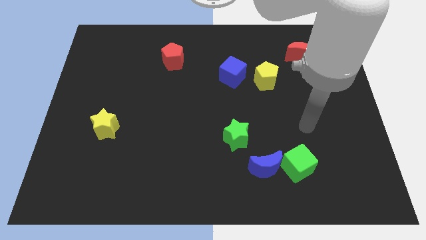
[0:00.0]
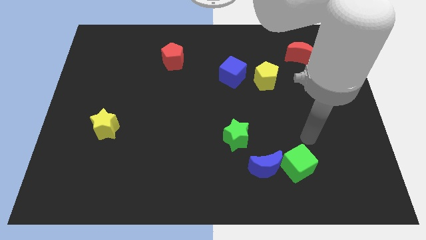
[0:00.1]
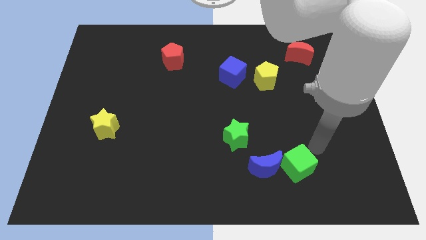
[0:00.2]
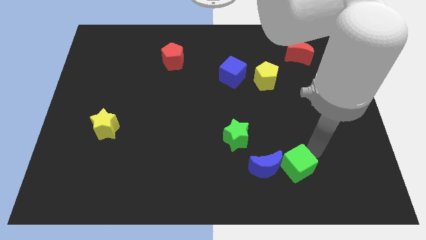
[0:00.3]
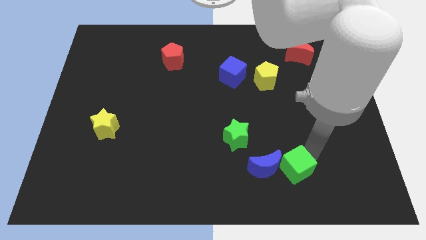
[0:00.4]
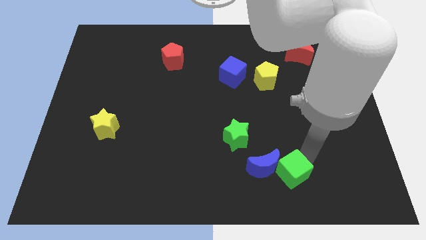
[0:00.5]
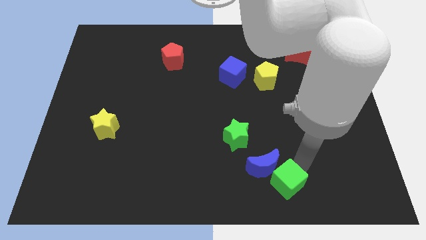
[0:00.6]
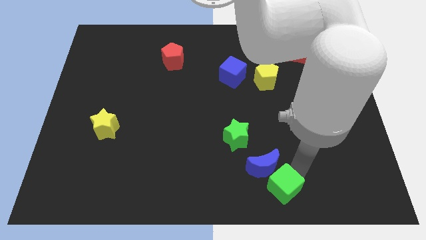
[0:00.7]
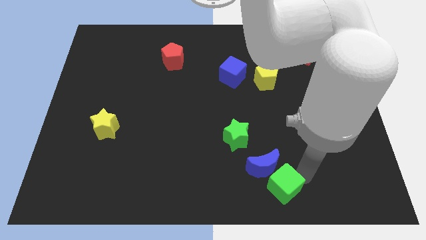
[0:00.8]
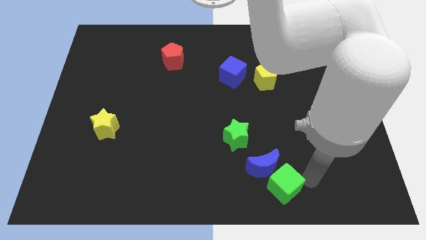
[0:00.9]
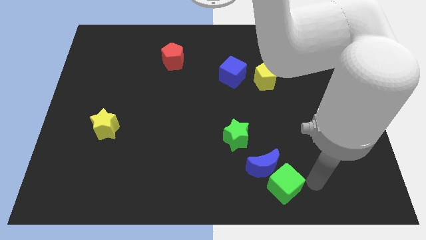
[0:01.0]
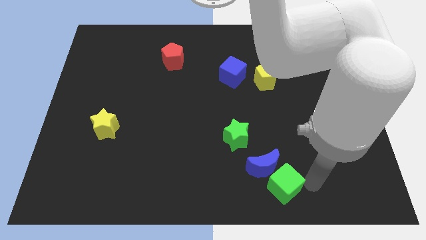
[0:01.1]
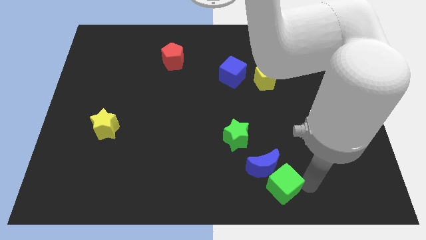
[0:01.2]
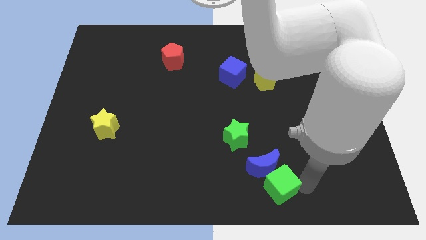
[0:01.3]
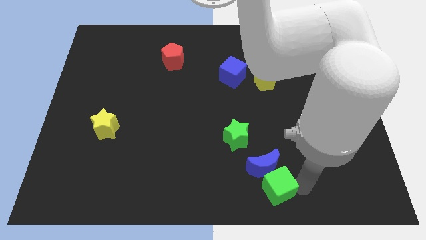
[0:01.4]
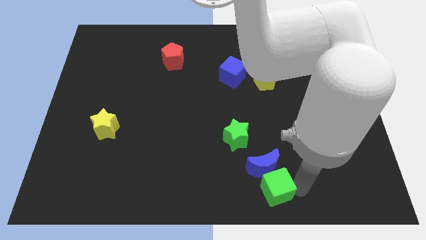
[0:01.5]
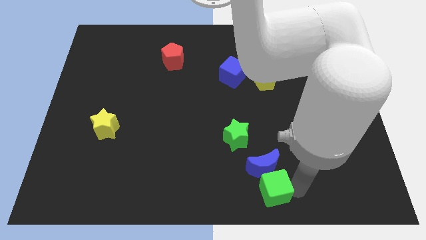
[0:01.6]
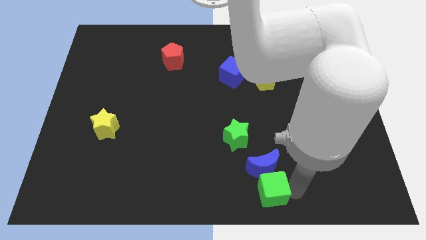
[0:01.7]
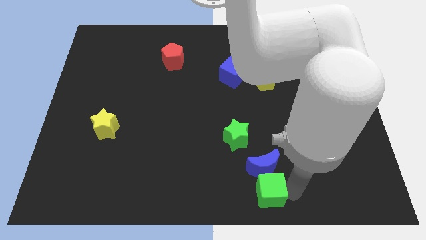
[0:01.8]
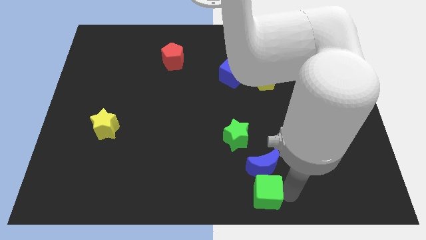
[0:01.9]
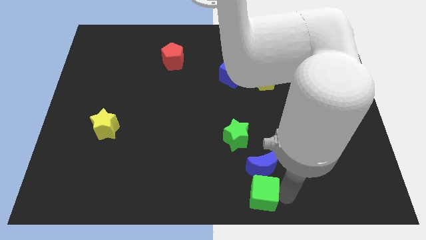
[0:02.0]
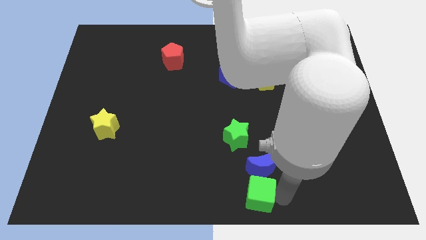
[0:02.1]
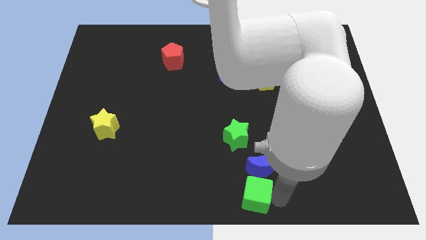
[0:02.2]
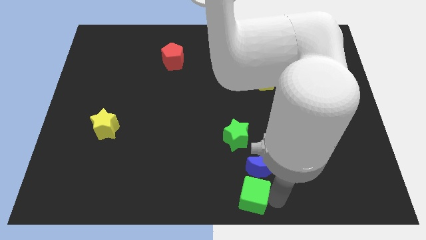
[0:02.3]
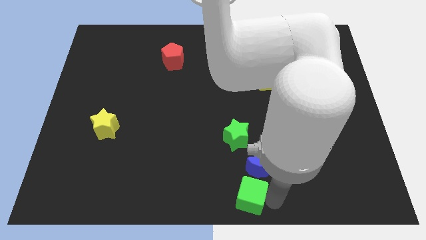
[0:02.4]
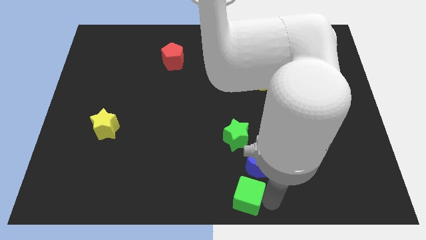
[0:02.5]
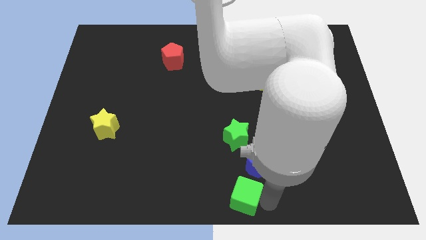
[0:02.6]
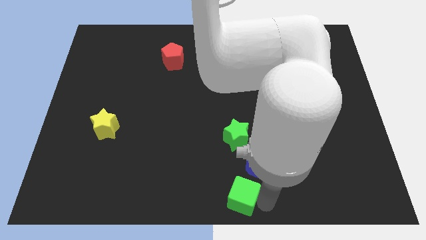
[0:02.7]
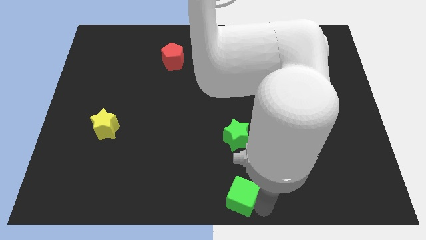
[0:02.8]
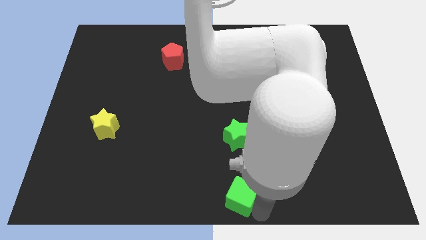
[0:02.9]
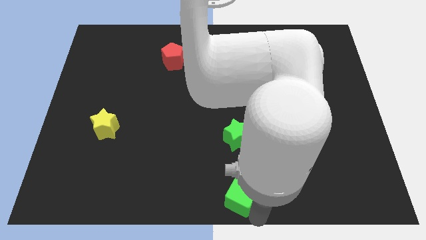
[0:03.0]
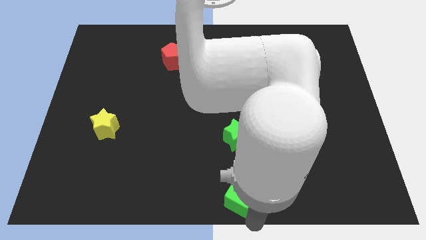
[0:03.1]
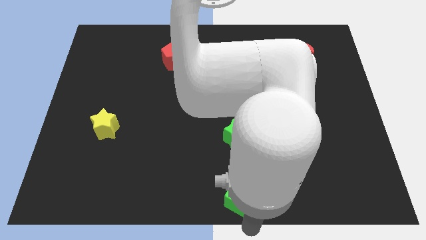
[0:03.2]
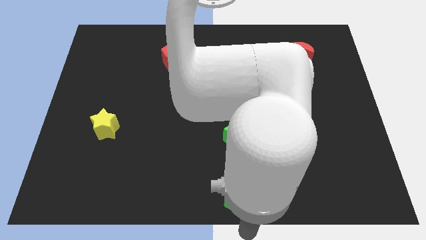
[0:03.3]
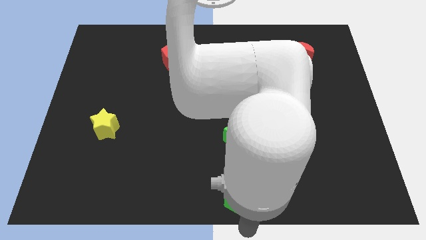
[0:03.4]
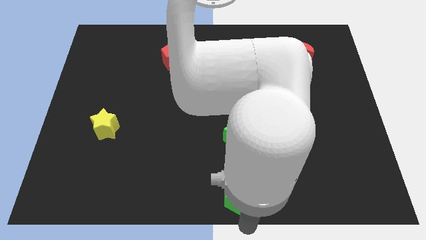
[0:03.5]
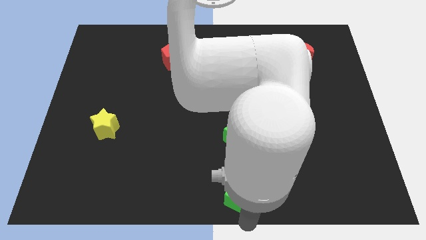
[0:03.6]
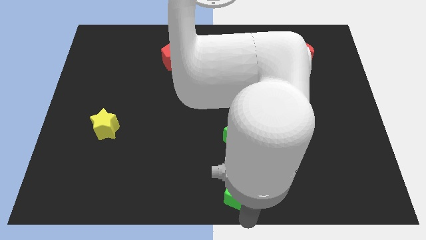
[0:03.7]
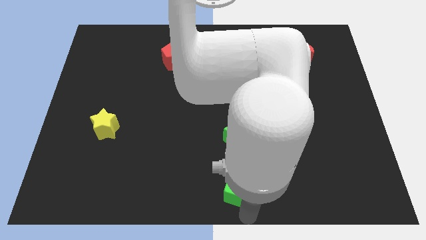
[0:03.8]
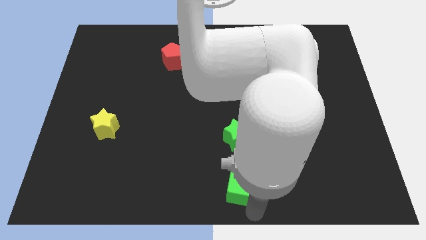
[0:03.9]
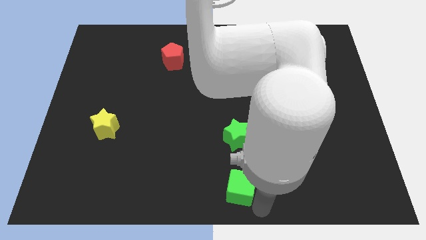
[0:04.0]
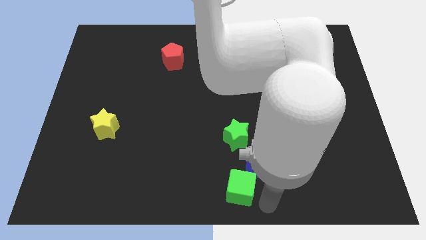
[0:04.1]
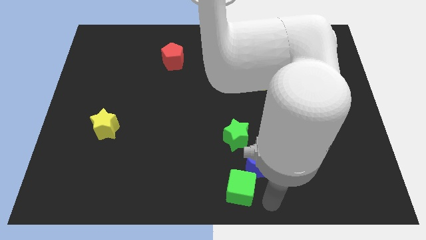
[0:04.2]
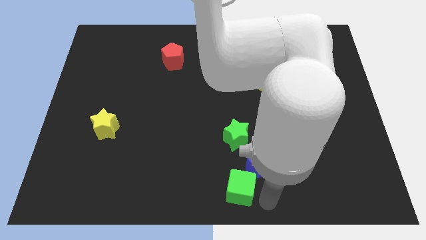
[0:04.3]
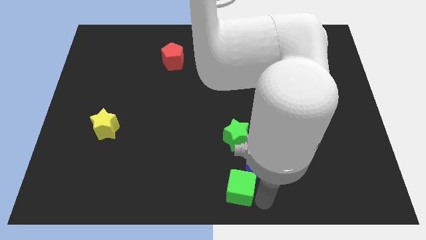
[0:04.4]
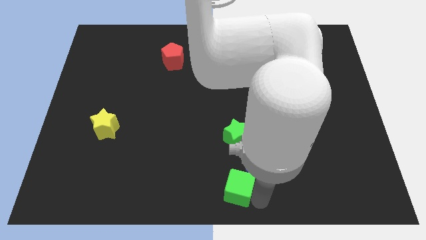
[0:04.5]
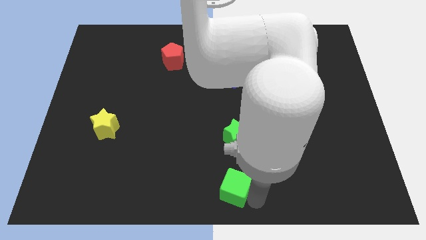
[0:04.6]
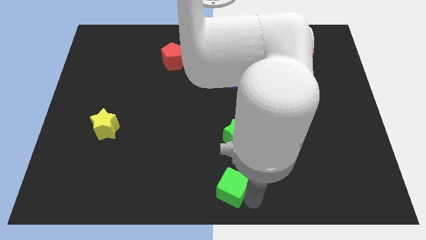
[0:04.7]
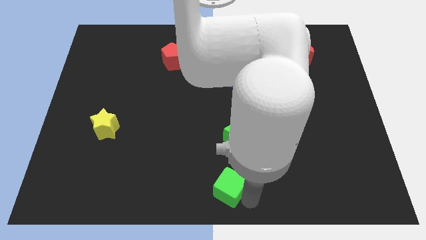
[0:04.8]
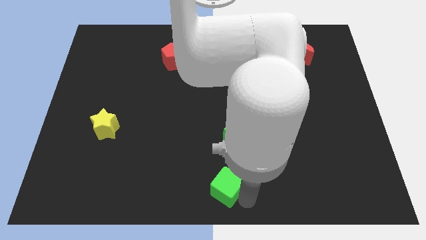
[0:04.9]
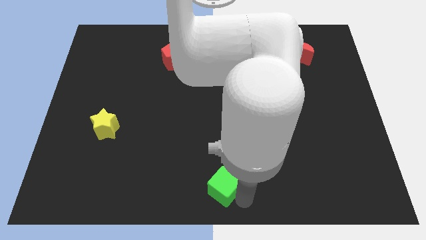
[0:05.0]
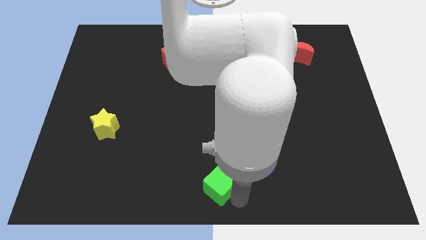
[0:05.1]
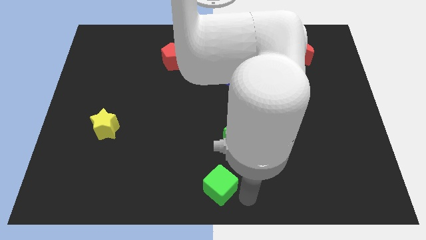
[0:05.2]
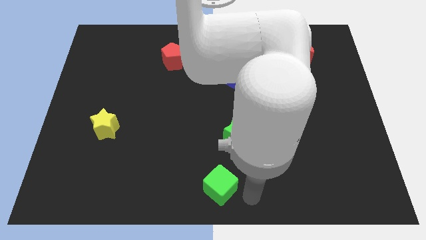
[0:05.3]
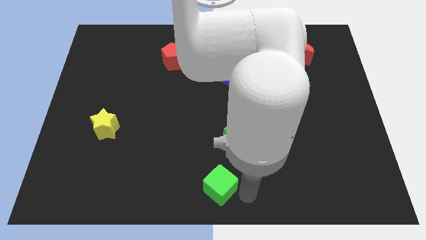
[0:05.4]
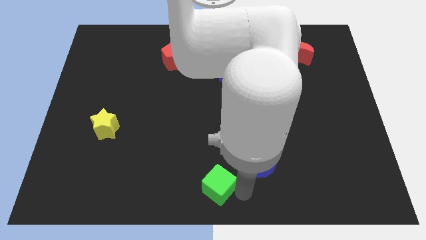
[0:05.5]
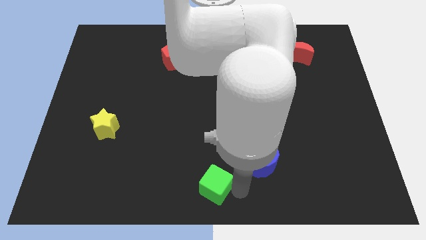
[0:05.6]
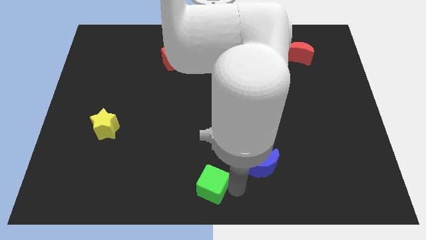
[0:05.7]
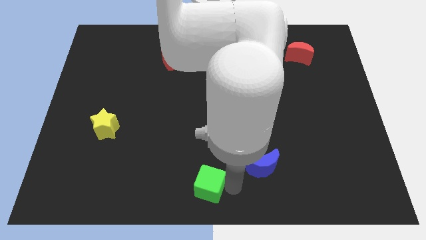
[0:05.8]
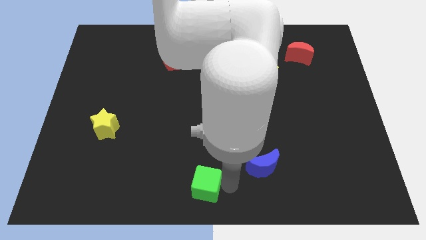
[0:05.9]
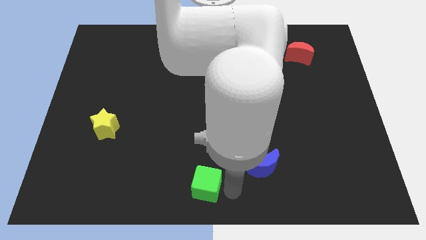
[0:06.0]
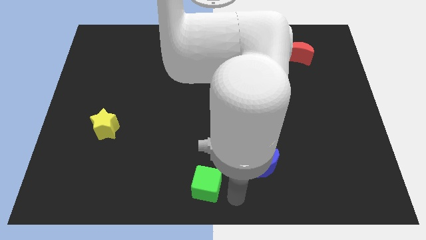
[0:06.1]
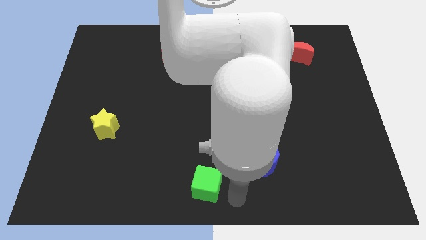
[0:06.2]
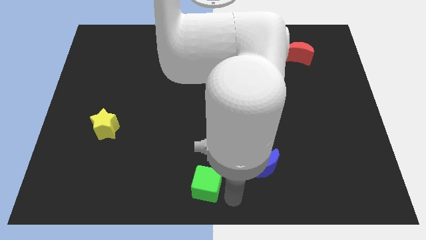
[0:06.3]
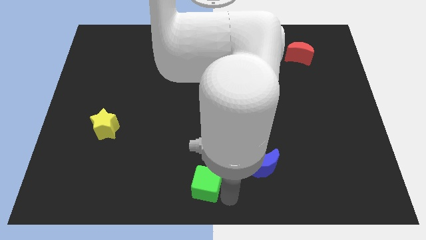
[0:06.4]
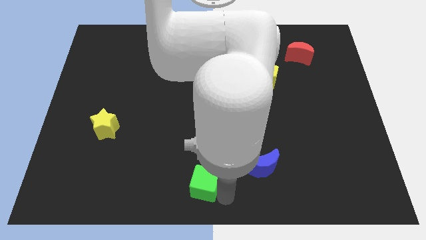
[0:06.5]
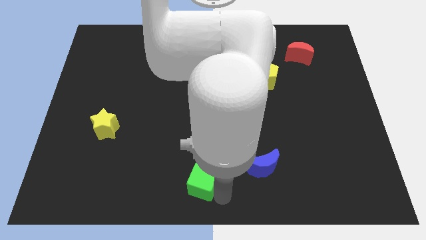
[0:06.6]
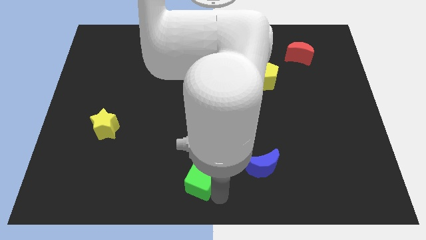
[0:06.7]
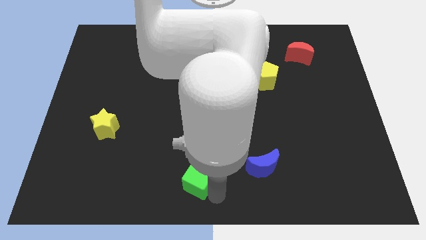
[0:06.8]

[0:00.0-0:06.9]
slide the green cube left

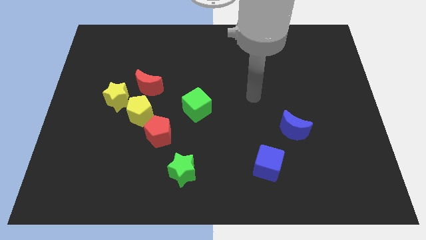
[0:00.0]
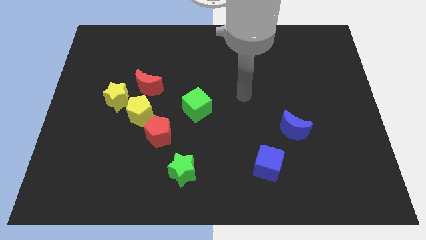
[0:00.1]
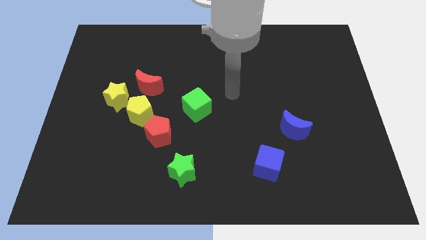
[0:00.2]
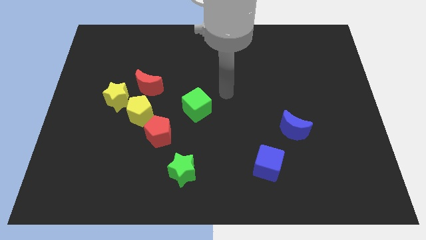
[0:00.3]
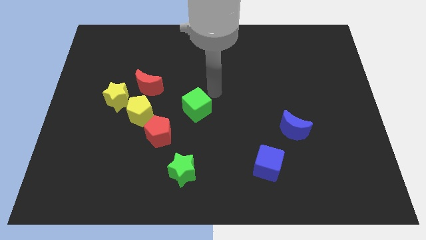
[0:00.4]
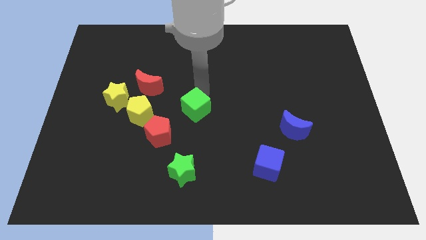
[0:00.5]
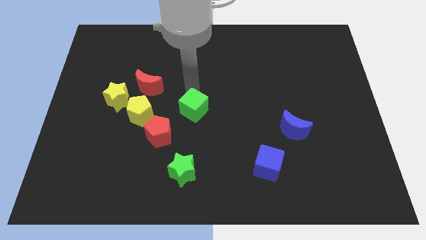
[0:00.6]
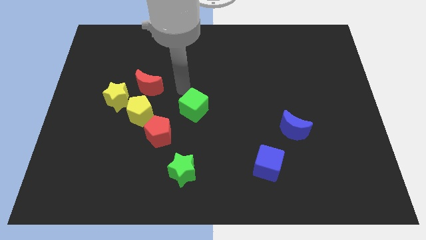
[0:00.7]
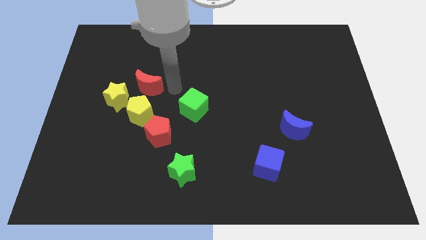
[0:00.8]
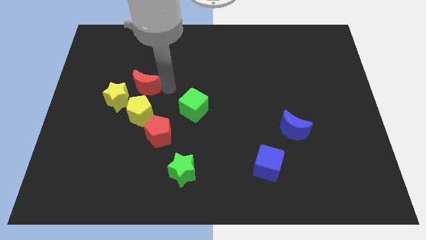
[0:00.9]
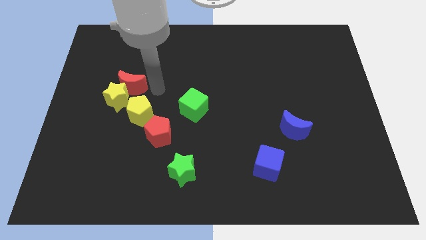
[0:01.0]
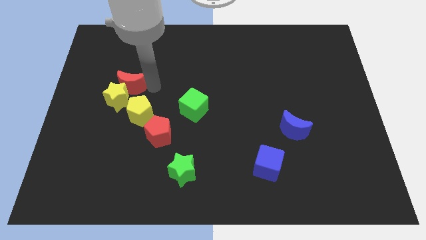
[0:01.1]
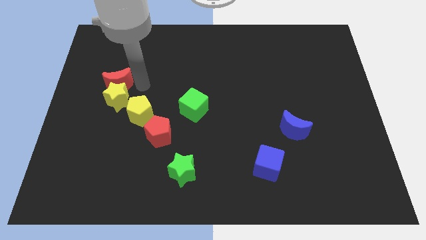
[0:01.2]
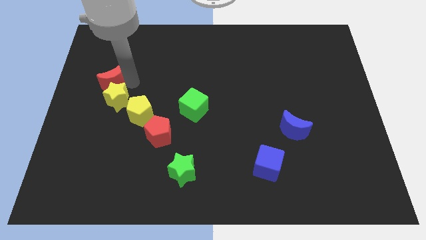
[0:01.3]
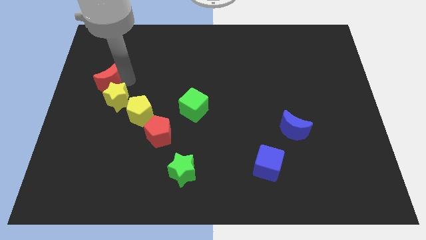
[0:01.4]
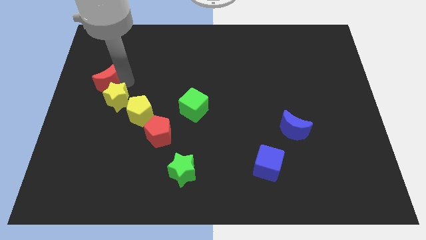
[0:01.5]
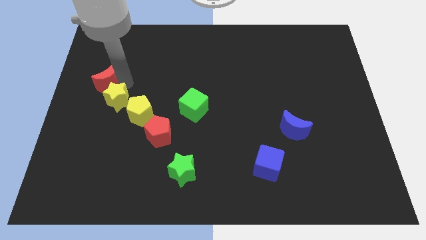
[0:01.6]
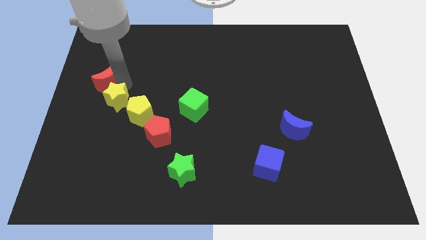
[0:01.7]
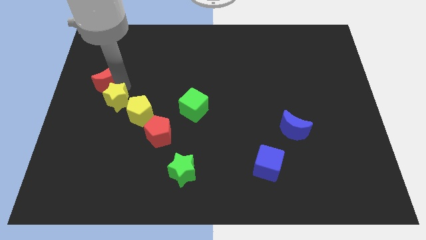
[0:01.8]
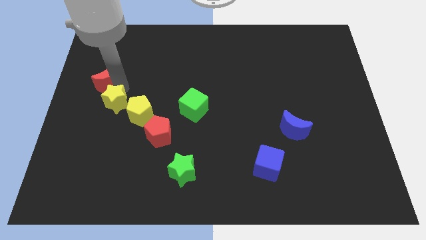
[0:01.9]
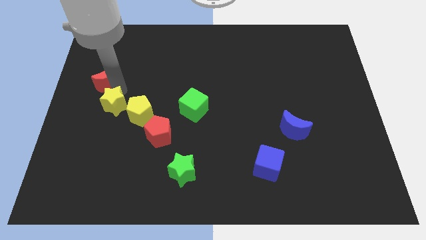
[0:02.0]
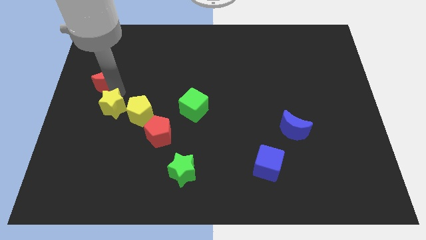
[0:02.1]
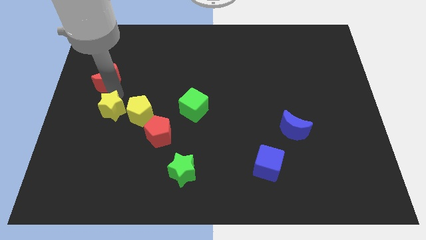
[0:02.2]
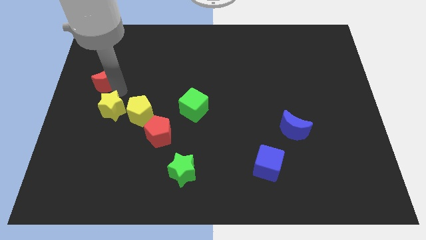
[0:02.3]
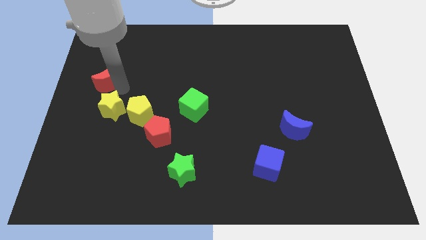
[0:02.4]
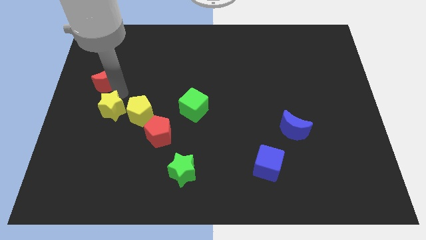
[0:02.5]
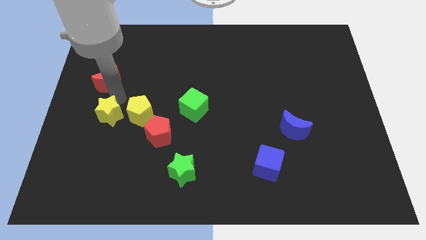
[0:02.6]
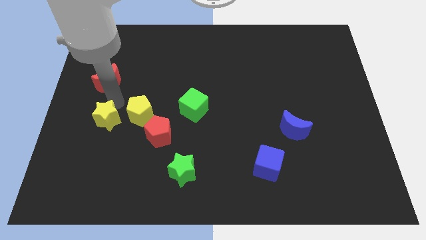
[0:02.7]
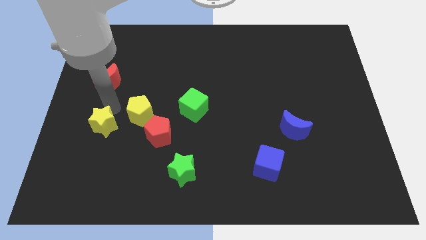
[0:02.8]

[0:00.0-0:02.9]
slide the yellow star slightly downwards
